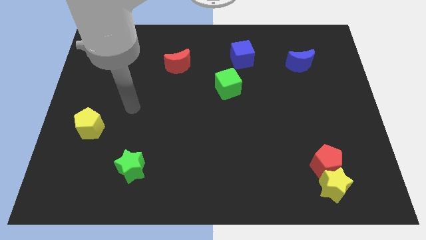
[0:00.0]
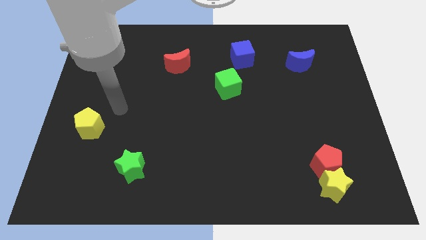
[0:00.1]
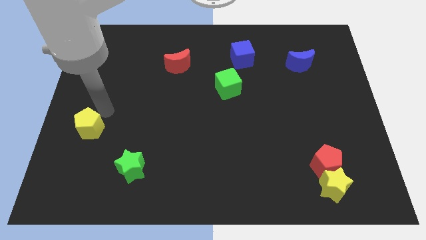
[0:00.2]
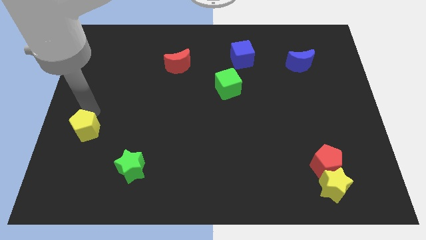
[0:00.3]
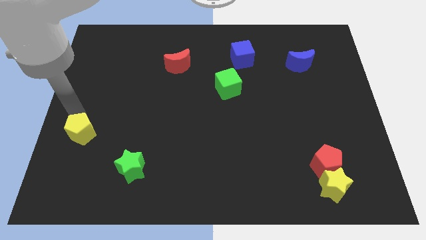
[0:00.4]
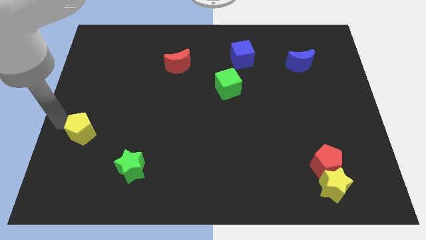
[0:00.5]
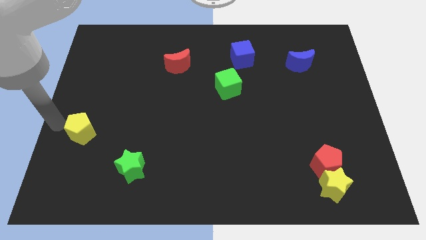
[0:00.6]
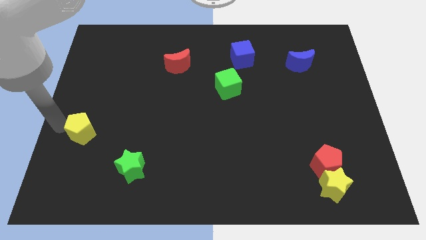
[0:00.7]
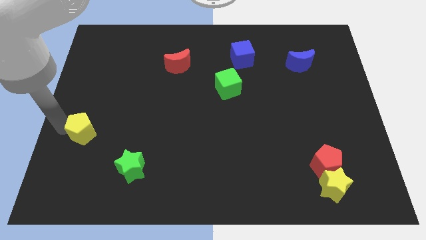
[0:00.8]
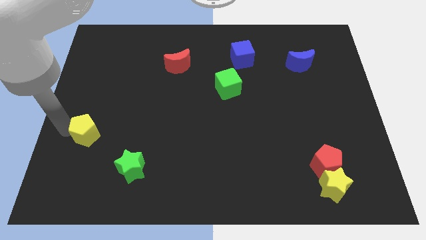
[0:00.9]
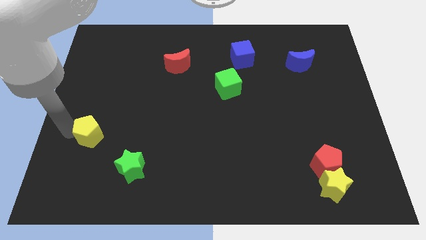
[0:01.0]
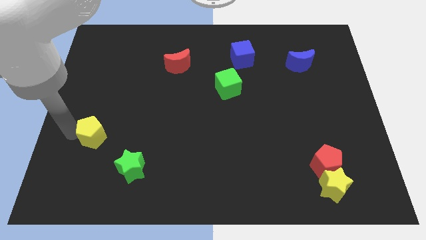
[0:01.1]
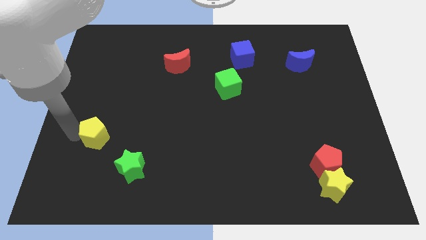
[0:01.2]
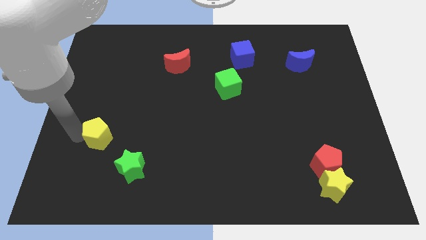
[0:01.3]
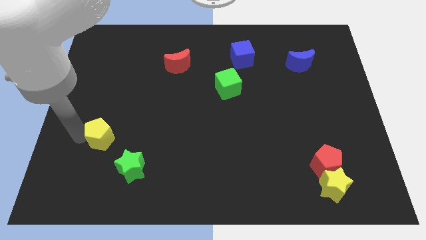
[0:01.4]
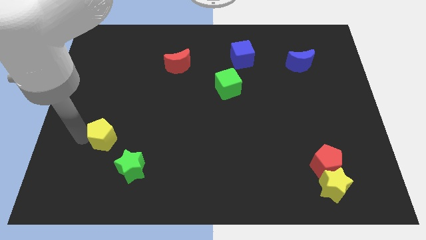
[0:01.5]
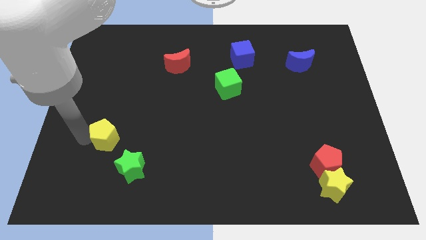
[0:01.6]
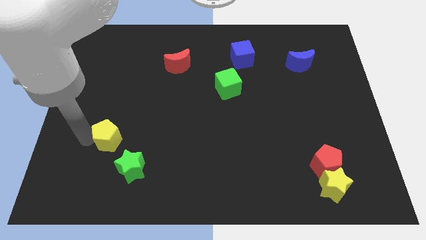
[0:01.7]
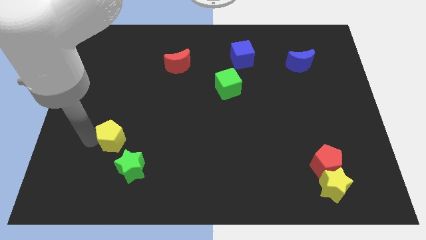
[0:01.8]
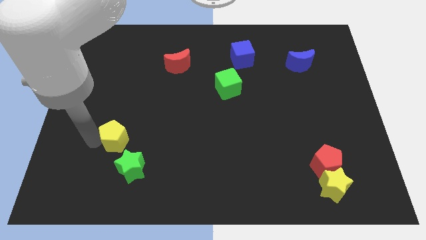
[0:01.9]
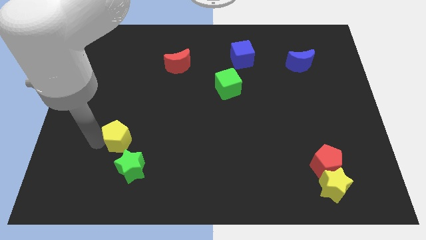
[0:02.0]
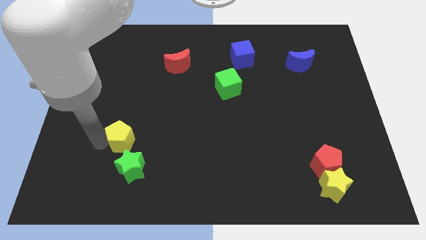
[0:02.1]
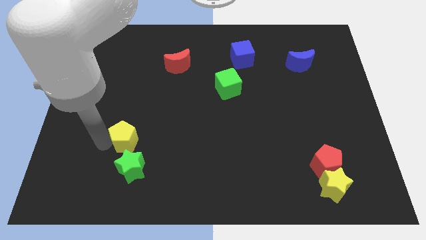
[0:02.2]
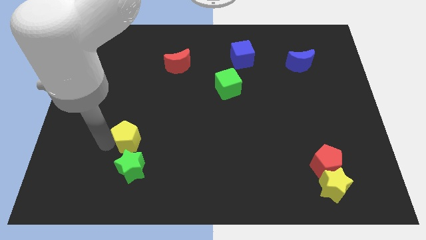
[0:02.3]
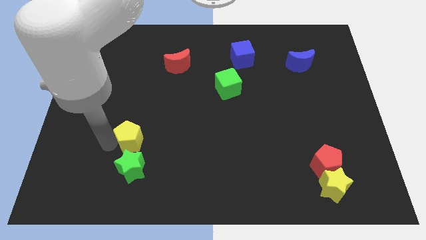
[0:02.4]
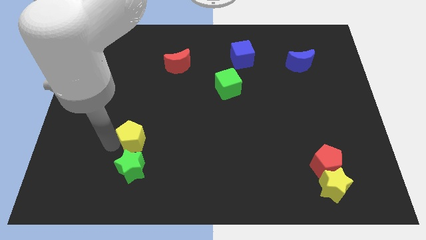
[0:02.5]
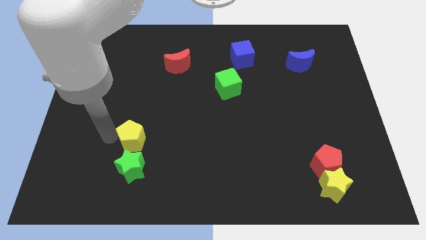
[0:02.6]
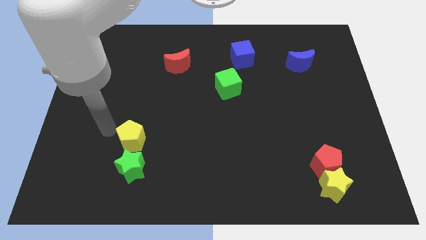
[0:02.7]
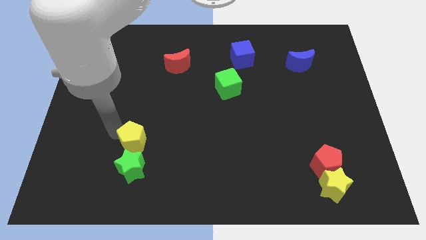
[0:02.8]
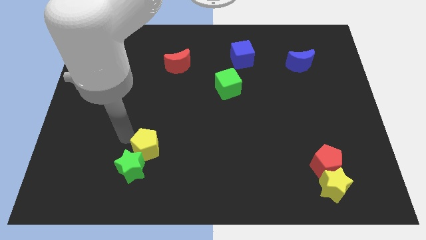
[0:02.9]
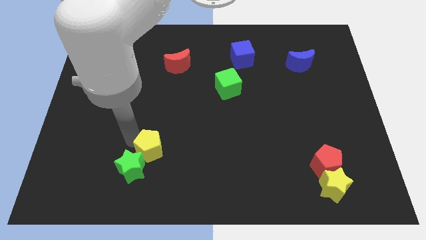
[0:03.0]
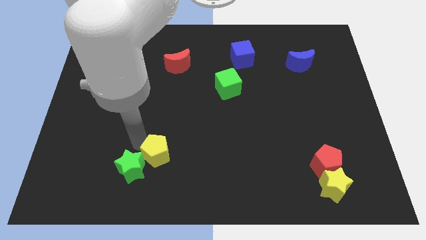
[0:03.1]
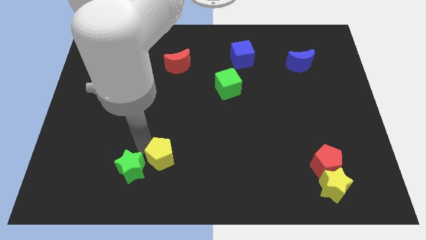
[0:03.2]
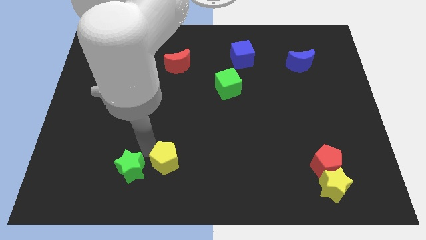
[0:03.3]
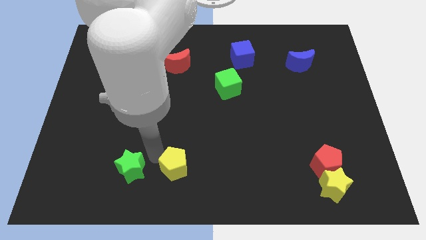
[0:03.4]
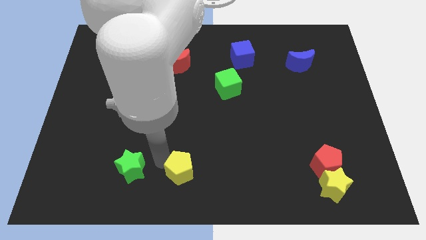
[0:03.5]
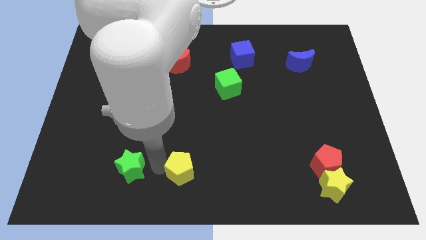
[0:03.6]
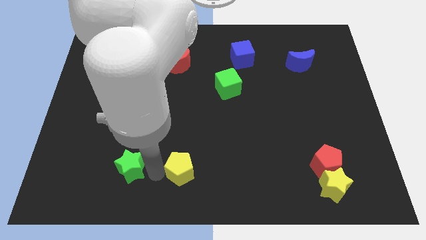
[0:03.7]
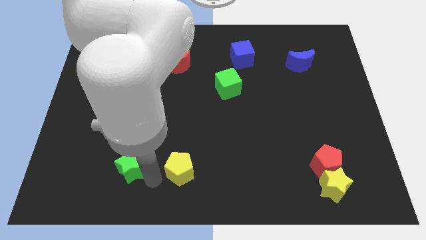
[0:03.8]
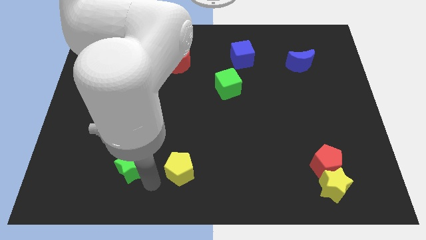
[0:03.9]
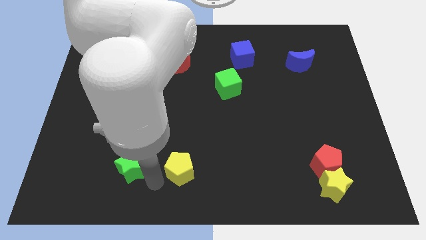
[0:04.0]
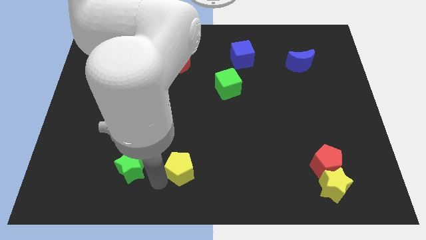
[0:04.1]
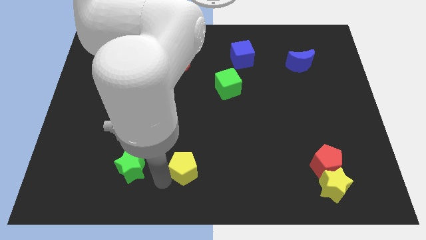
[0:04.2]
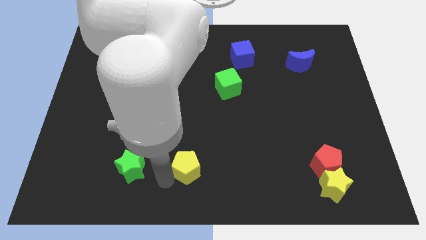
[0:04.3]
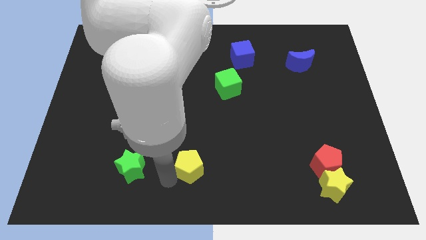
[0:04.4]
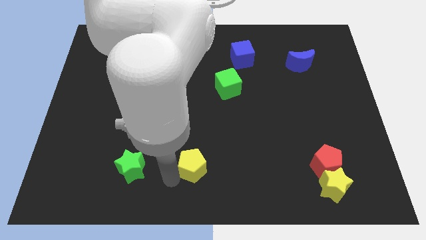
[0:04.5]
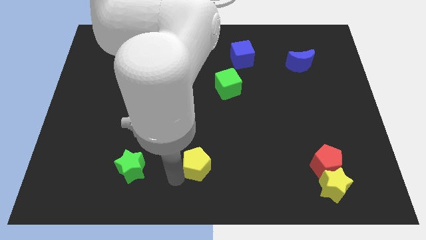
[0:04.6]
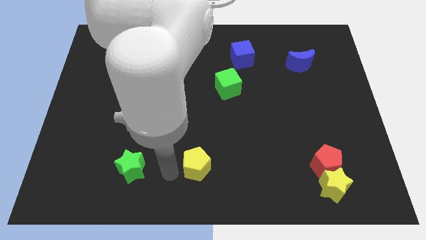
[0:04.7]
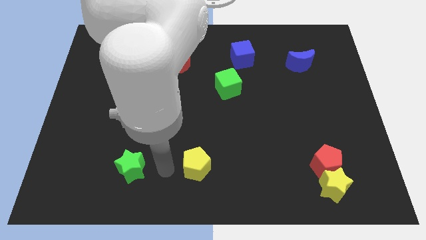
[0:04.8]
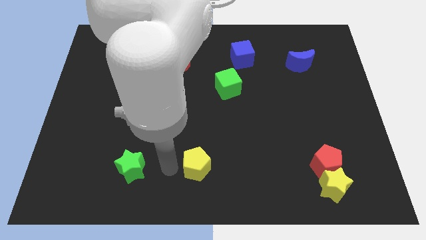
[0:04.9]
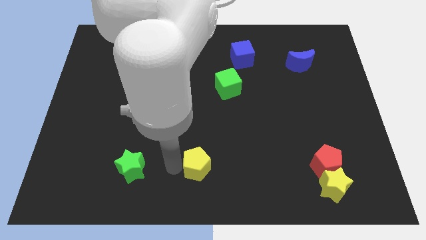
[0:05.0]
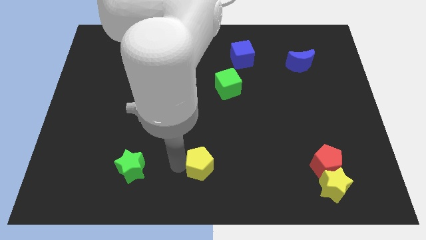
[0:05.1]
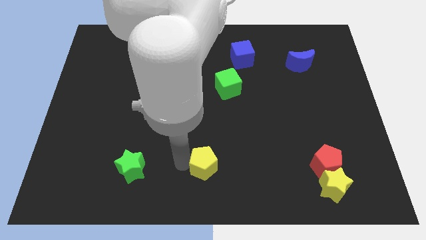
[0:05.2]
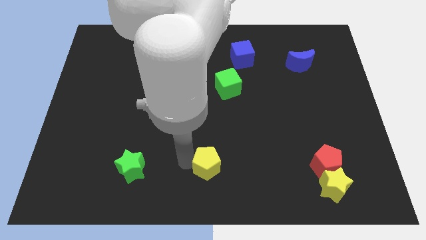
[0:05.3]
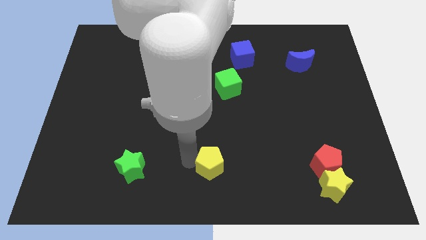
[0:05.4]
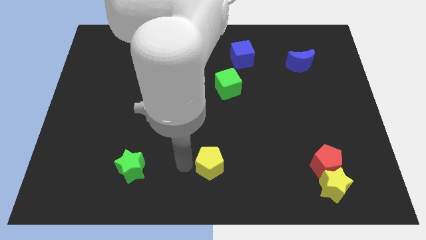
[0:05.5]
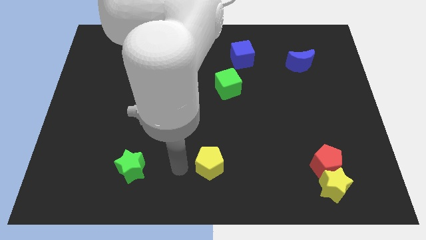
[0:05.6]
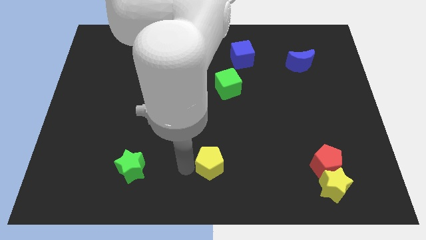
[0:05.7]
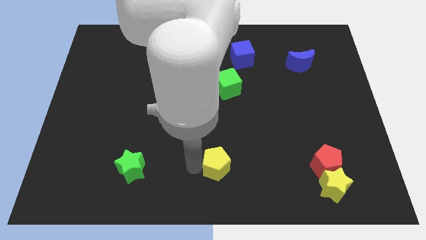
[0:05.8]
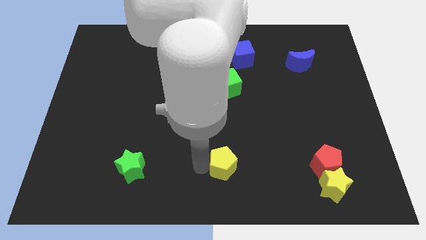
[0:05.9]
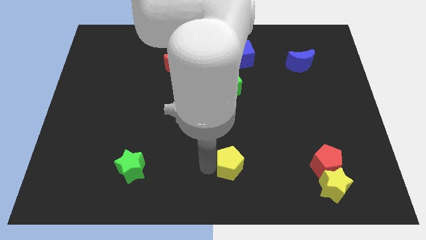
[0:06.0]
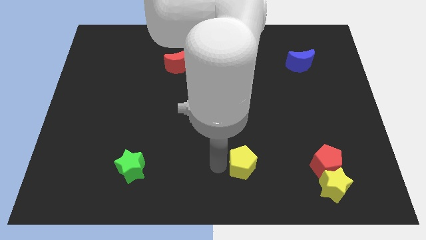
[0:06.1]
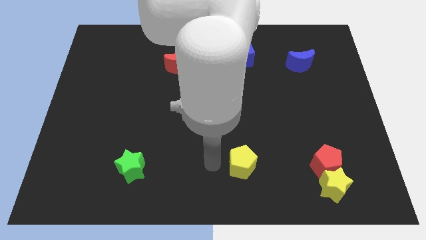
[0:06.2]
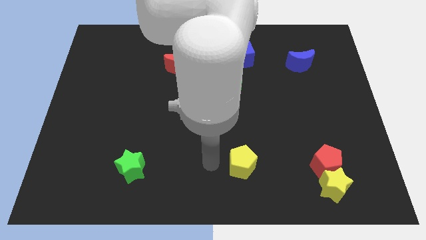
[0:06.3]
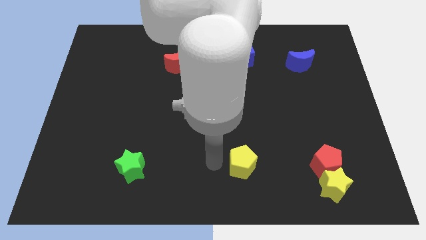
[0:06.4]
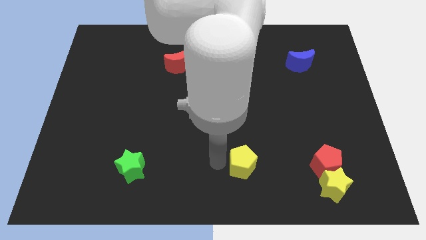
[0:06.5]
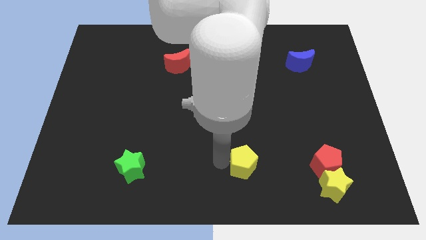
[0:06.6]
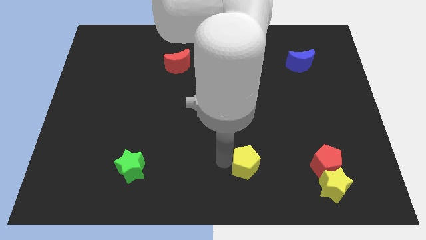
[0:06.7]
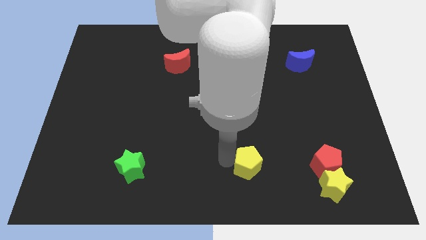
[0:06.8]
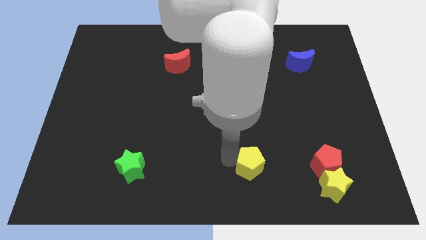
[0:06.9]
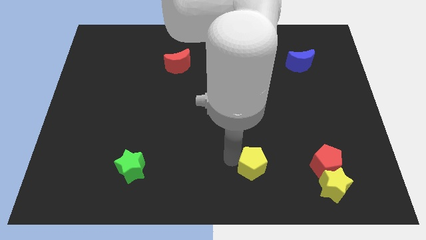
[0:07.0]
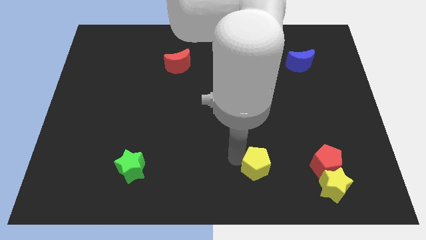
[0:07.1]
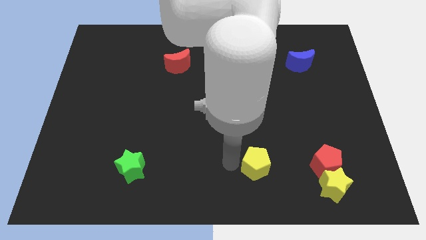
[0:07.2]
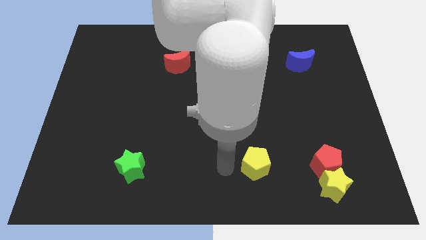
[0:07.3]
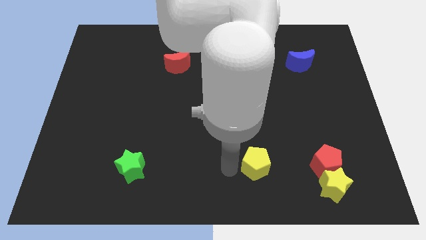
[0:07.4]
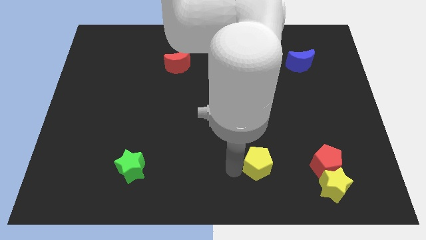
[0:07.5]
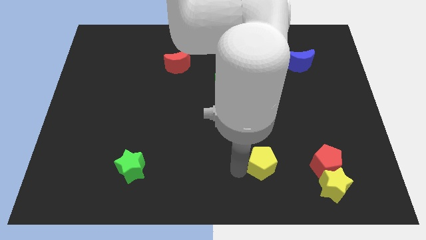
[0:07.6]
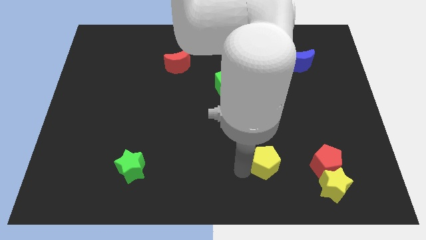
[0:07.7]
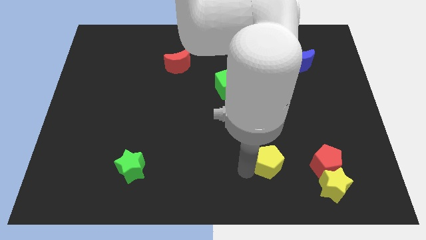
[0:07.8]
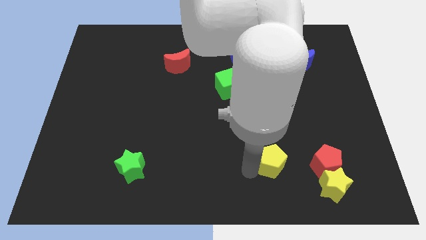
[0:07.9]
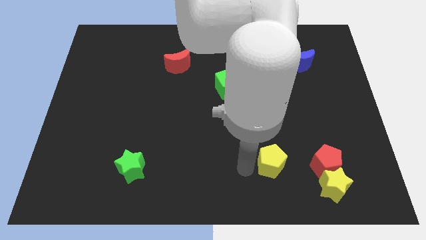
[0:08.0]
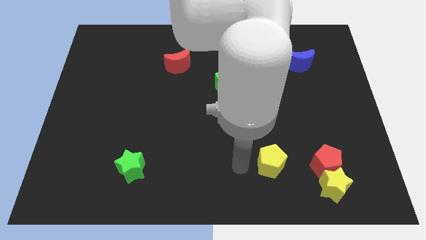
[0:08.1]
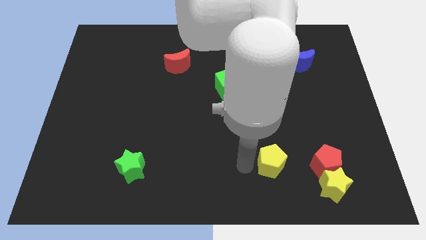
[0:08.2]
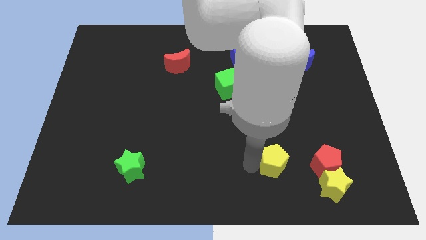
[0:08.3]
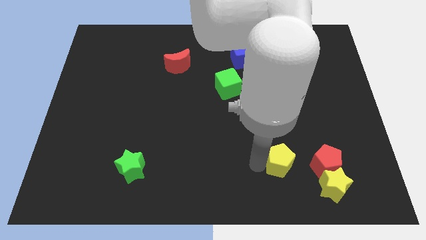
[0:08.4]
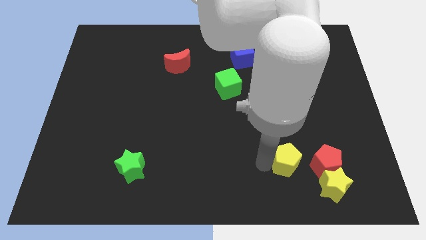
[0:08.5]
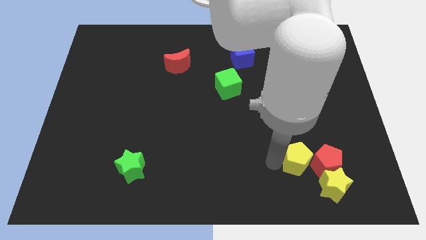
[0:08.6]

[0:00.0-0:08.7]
put the yellow pentagon towards the red pentagon
